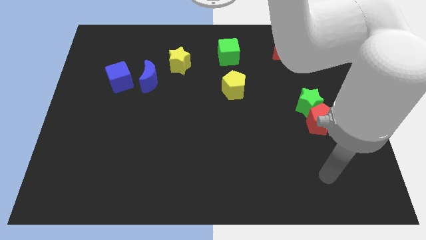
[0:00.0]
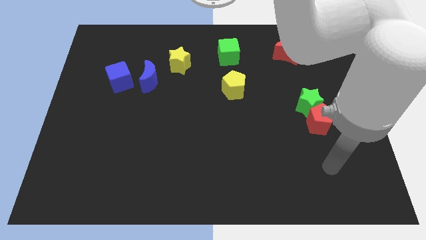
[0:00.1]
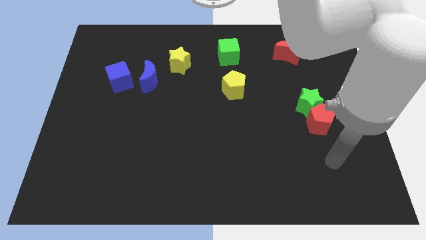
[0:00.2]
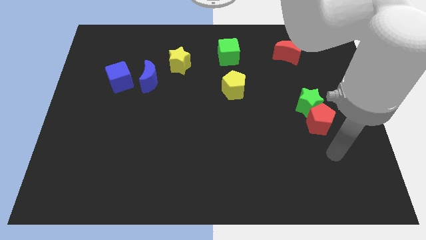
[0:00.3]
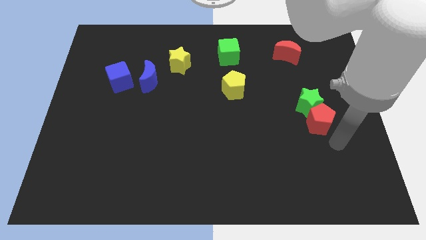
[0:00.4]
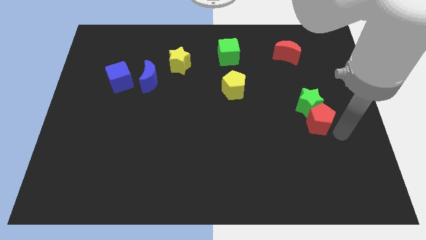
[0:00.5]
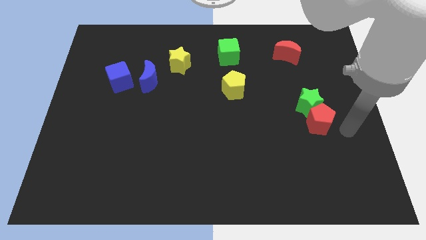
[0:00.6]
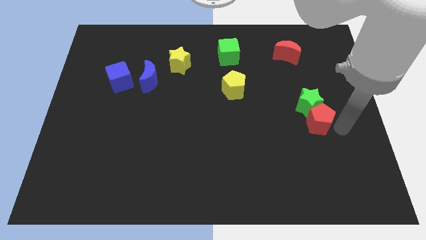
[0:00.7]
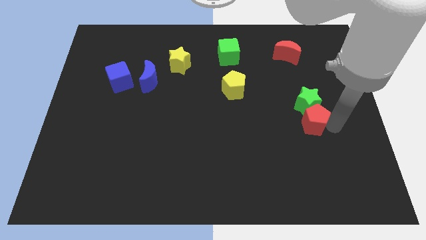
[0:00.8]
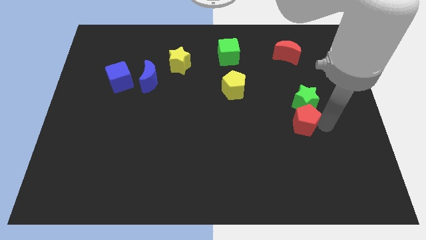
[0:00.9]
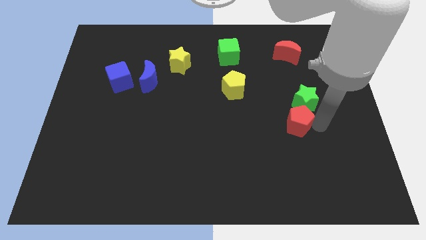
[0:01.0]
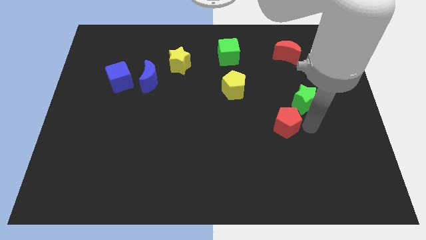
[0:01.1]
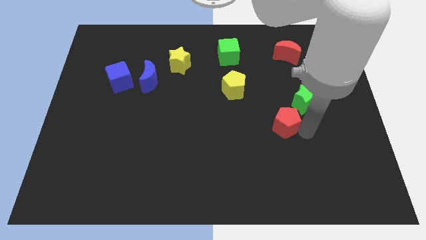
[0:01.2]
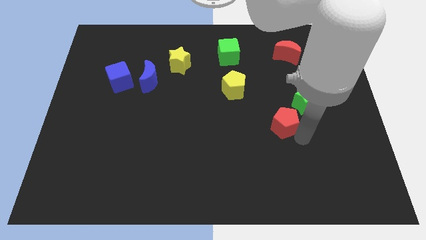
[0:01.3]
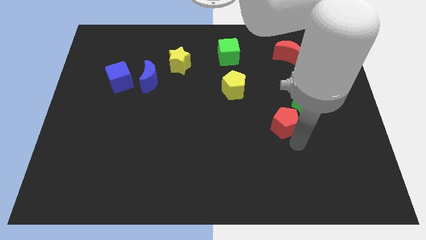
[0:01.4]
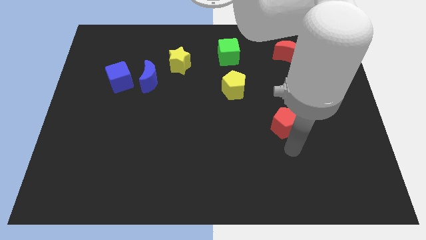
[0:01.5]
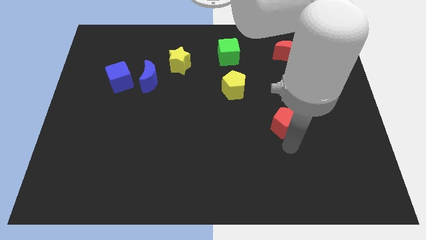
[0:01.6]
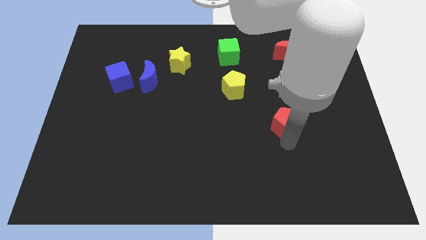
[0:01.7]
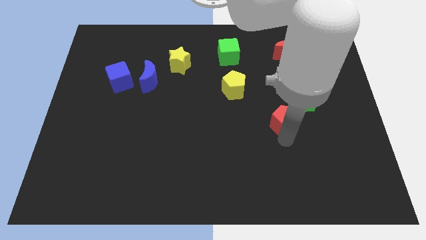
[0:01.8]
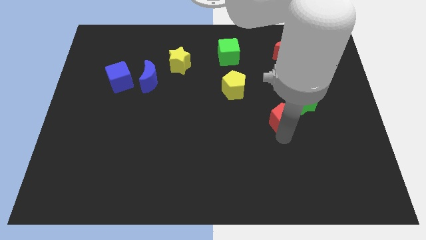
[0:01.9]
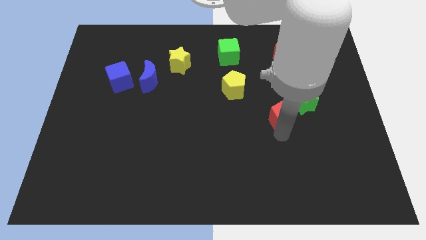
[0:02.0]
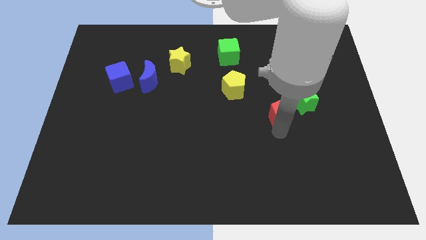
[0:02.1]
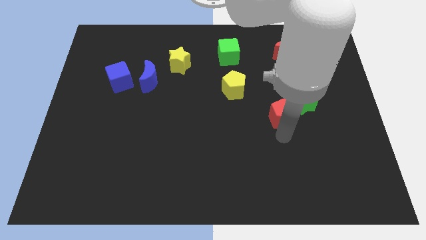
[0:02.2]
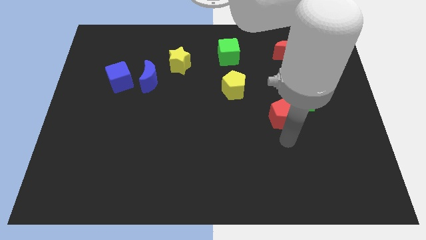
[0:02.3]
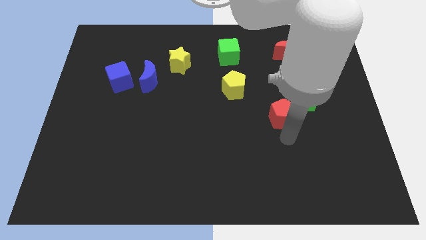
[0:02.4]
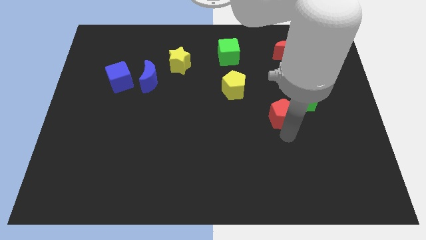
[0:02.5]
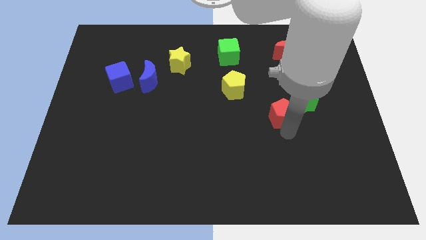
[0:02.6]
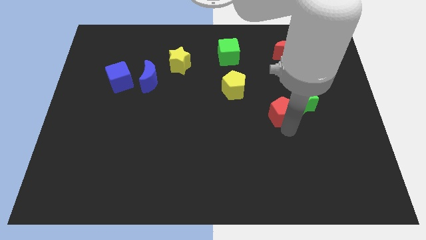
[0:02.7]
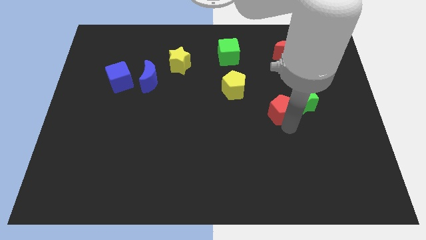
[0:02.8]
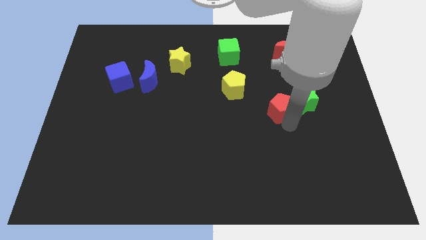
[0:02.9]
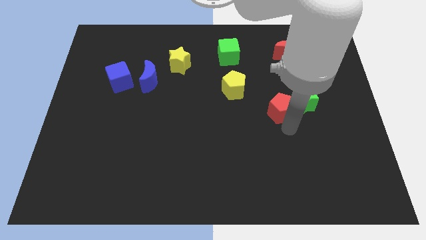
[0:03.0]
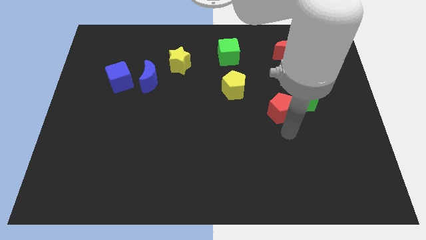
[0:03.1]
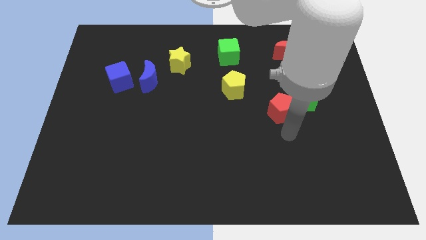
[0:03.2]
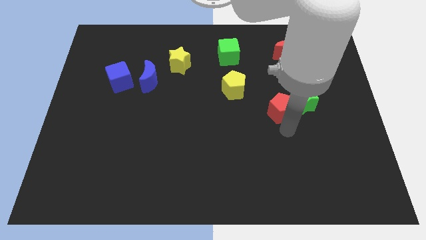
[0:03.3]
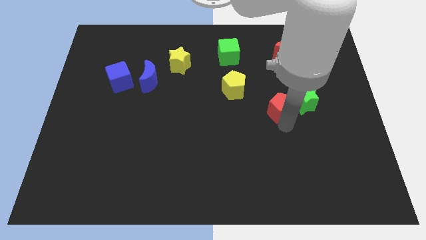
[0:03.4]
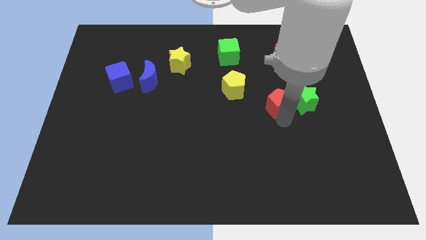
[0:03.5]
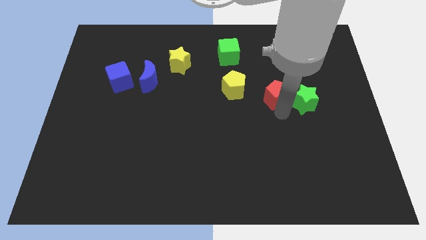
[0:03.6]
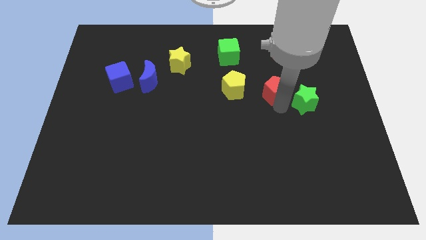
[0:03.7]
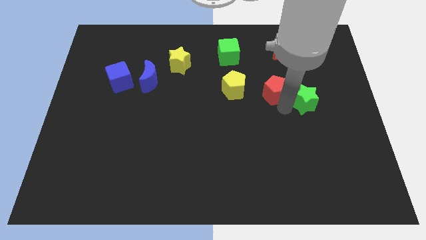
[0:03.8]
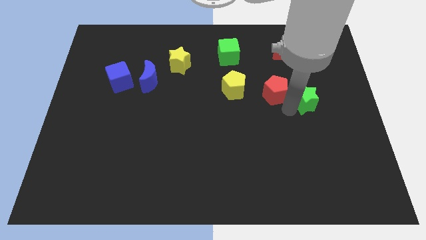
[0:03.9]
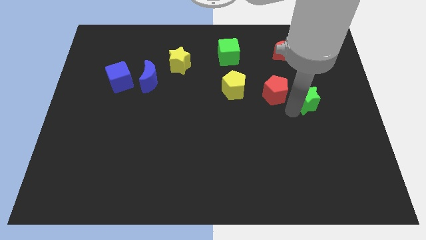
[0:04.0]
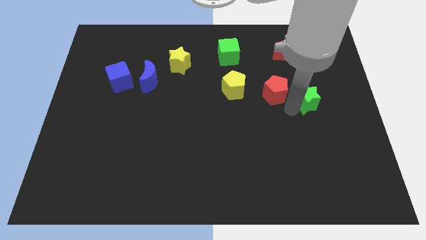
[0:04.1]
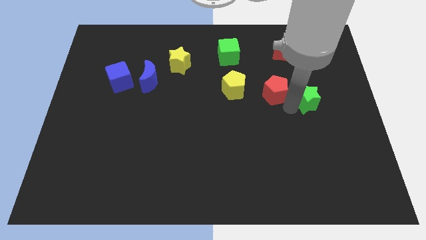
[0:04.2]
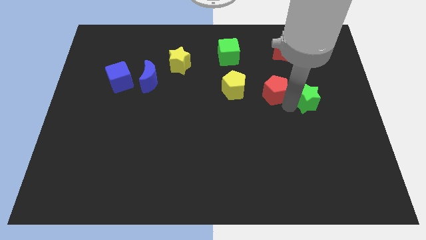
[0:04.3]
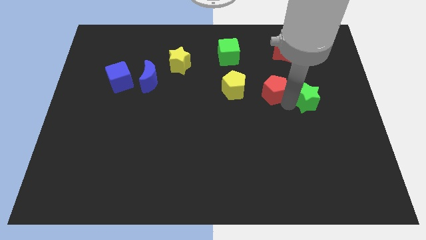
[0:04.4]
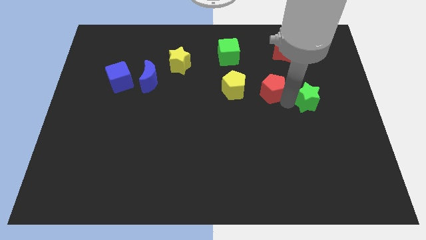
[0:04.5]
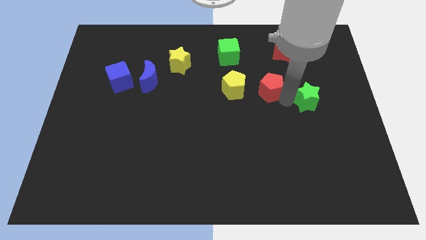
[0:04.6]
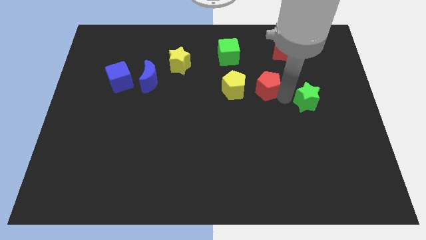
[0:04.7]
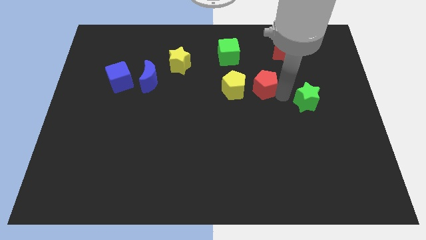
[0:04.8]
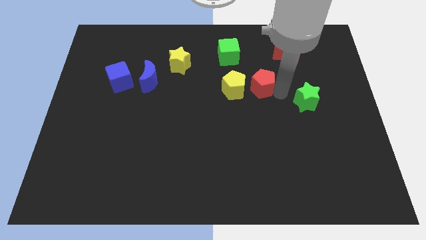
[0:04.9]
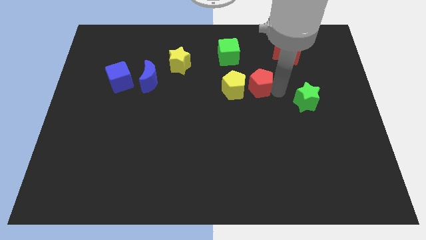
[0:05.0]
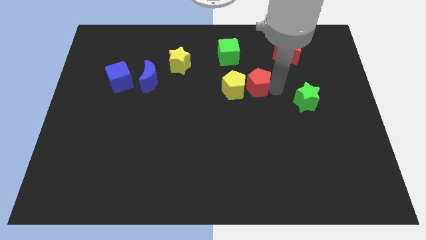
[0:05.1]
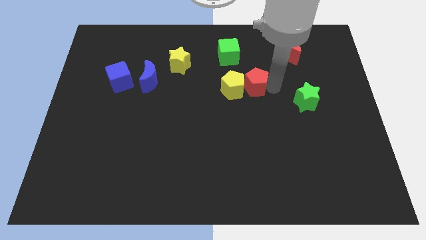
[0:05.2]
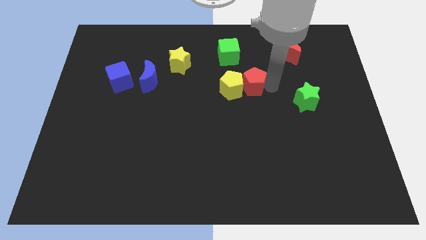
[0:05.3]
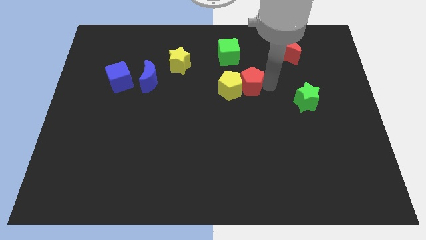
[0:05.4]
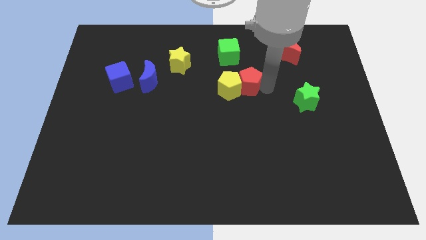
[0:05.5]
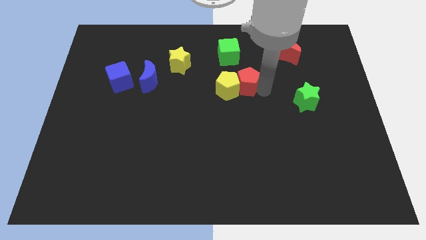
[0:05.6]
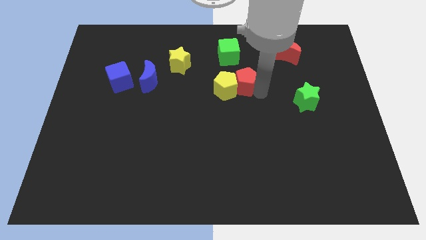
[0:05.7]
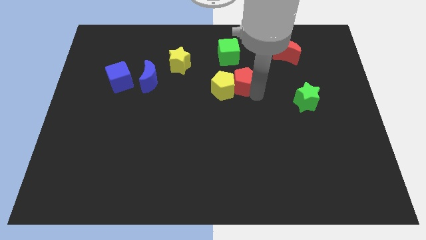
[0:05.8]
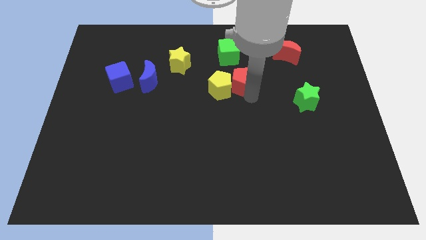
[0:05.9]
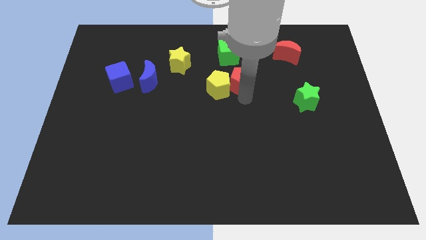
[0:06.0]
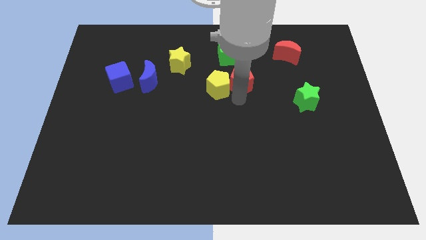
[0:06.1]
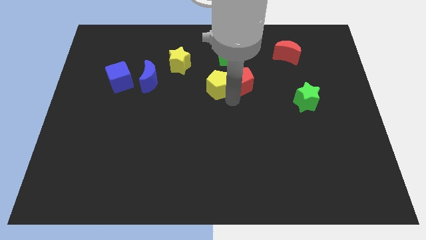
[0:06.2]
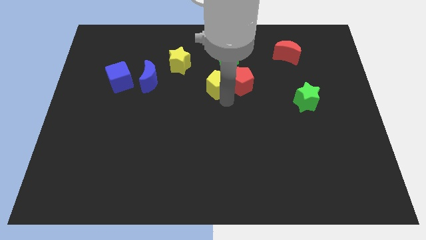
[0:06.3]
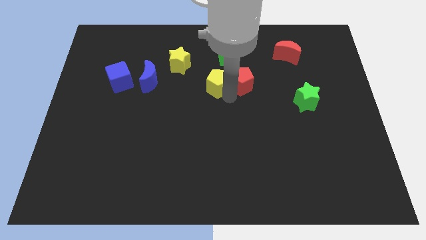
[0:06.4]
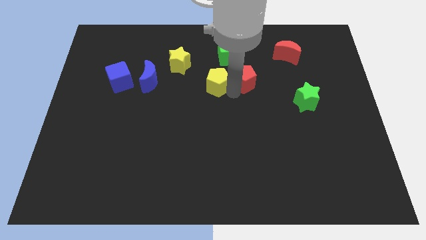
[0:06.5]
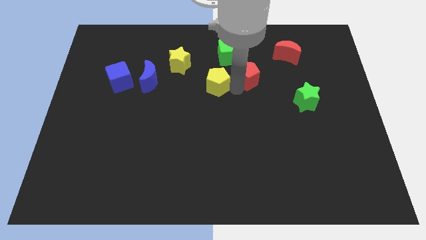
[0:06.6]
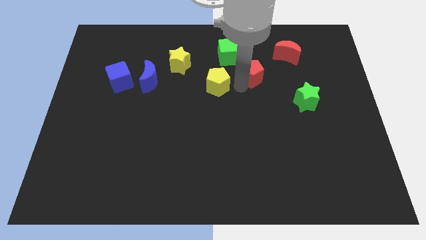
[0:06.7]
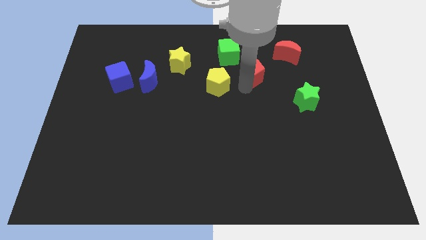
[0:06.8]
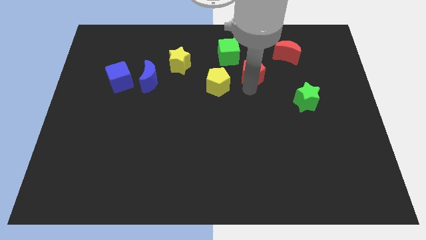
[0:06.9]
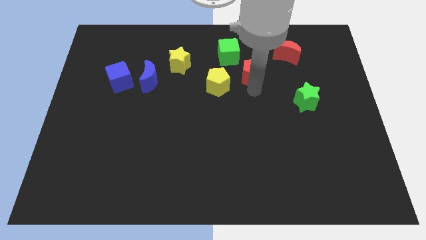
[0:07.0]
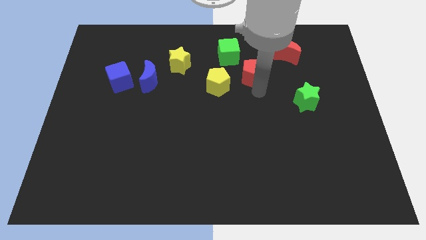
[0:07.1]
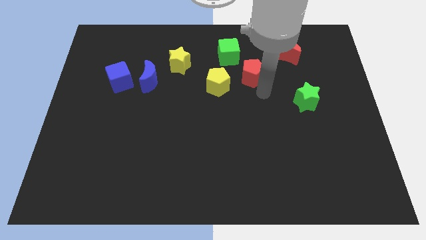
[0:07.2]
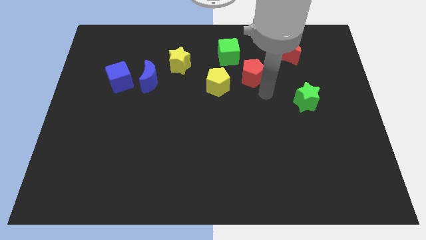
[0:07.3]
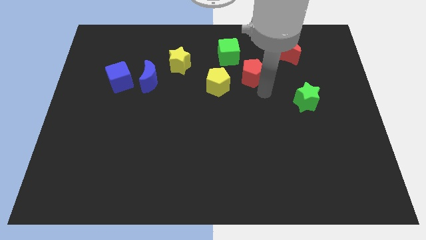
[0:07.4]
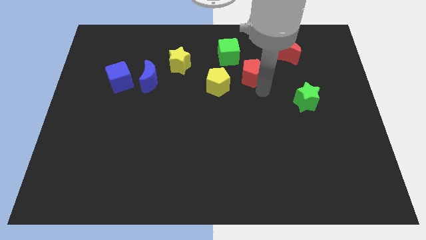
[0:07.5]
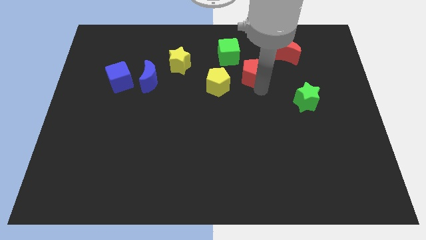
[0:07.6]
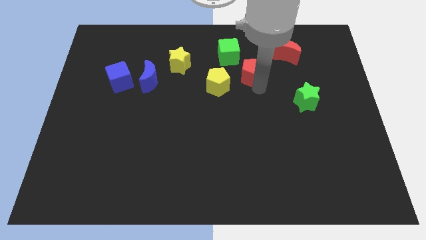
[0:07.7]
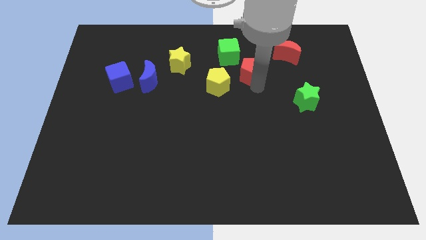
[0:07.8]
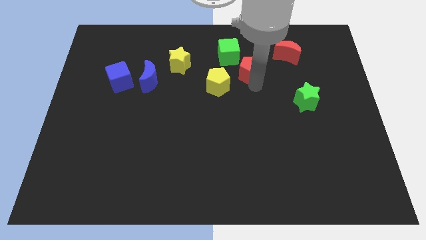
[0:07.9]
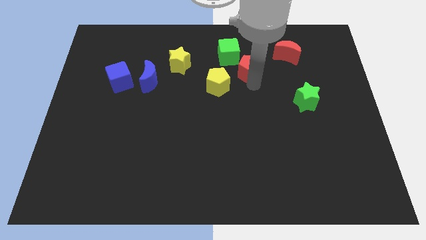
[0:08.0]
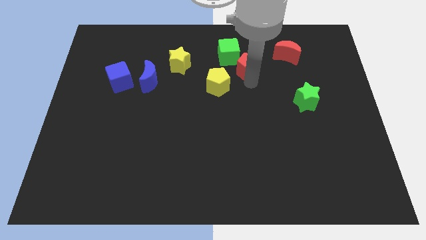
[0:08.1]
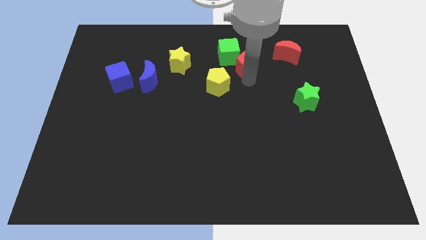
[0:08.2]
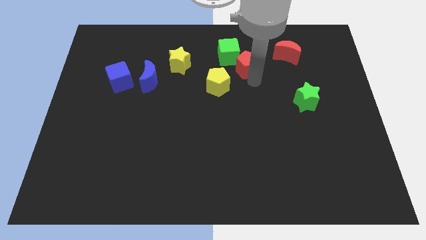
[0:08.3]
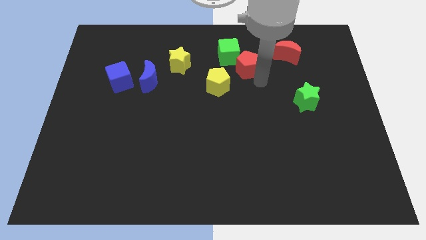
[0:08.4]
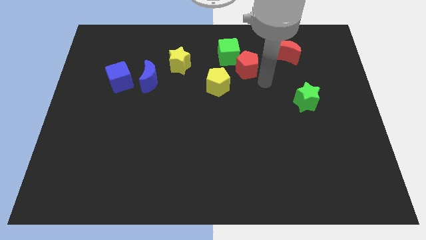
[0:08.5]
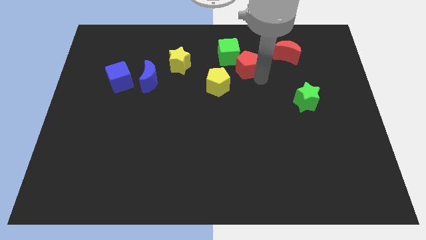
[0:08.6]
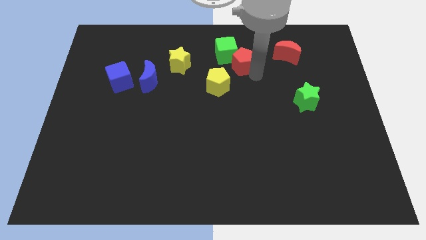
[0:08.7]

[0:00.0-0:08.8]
move the red pentagon towards the green cube
